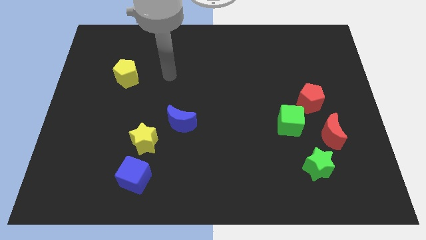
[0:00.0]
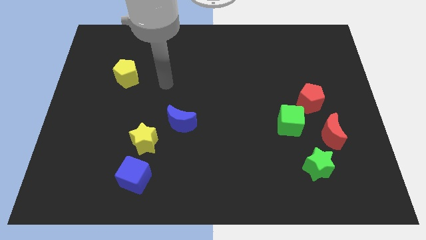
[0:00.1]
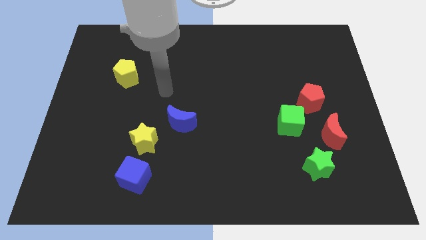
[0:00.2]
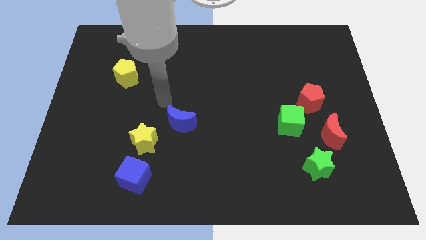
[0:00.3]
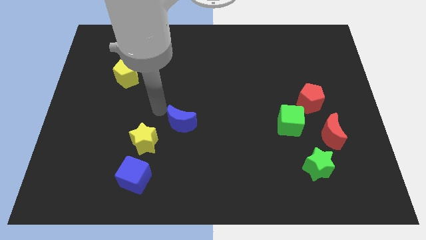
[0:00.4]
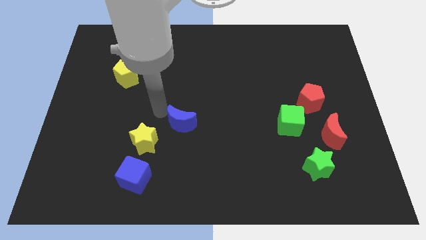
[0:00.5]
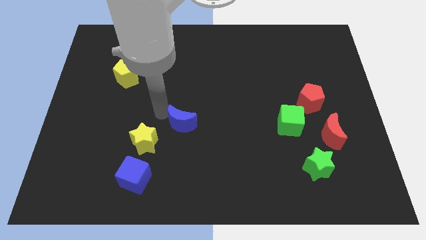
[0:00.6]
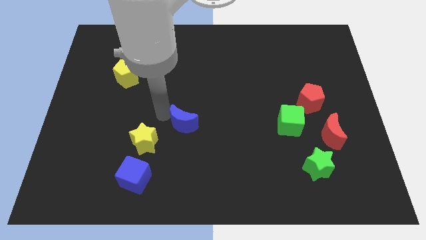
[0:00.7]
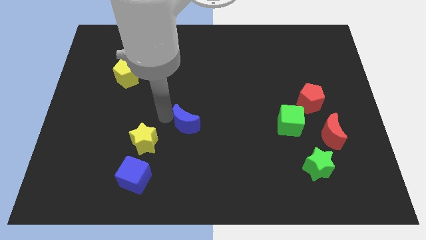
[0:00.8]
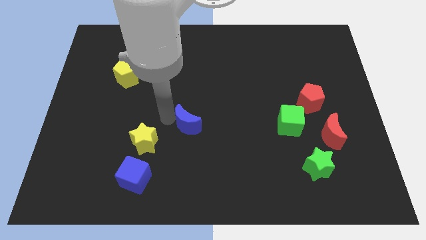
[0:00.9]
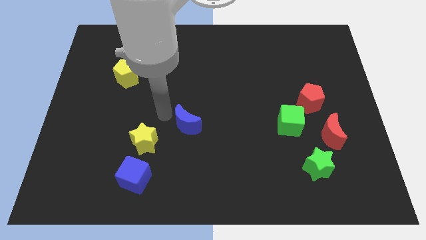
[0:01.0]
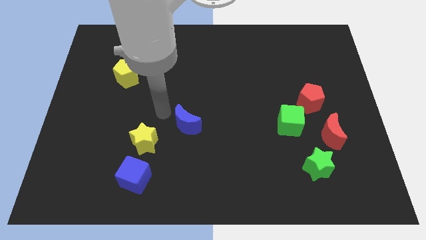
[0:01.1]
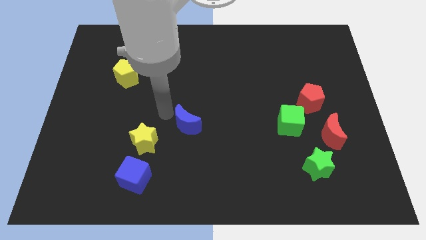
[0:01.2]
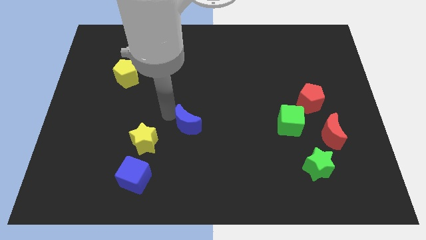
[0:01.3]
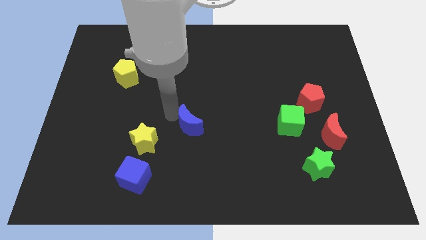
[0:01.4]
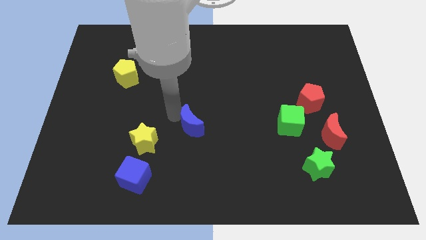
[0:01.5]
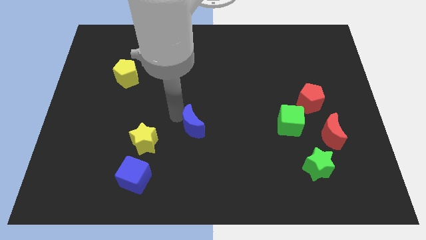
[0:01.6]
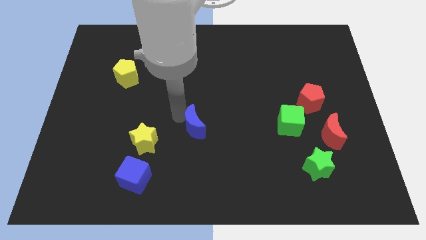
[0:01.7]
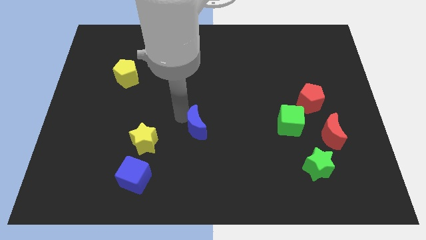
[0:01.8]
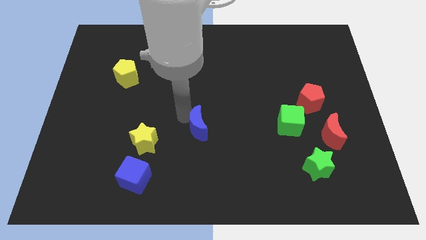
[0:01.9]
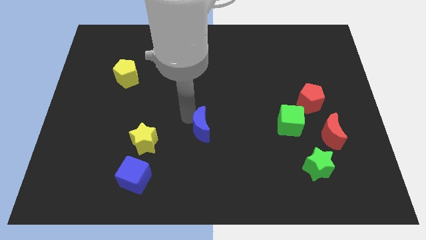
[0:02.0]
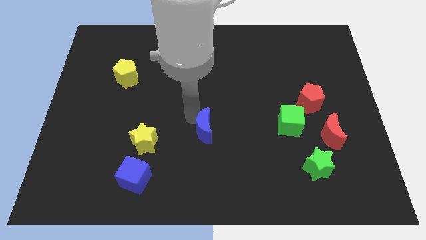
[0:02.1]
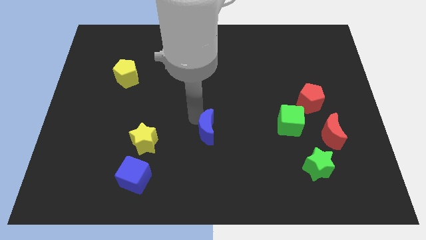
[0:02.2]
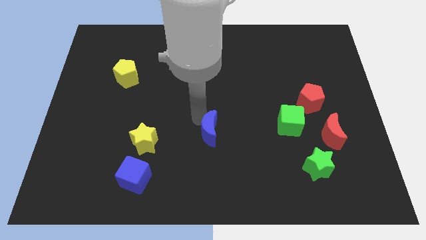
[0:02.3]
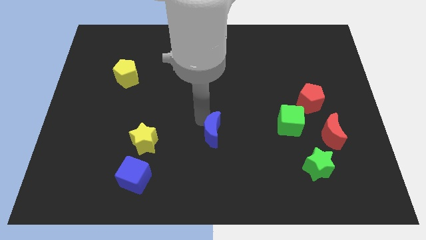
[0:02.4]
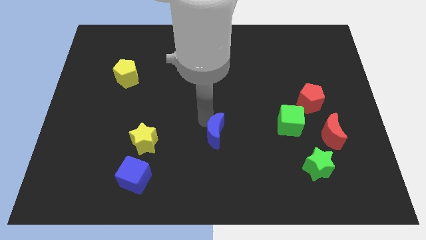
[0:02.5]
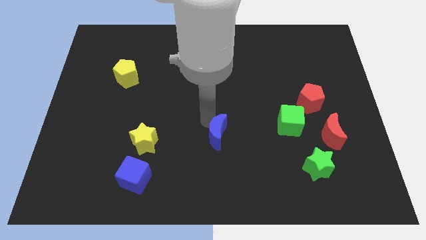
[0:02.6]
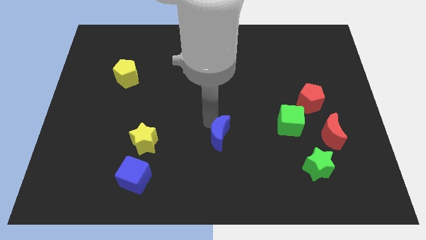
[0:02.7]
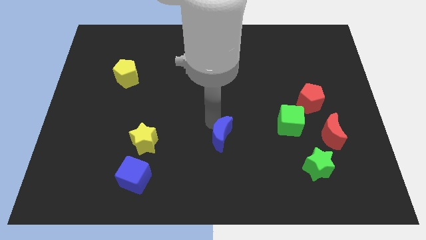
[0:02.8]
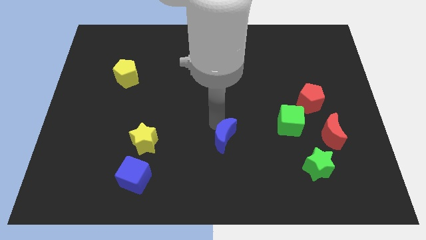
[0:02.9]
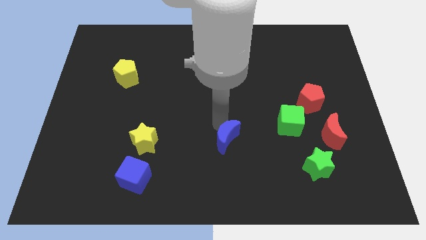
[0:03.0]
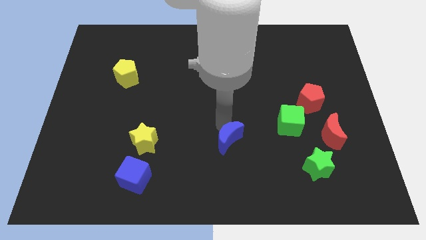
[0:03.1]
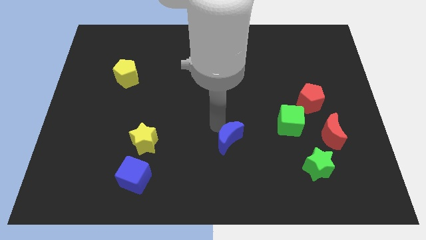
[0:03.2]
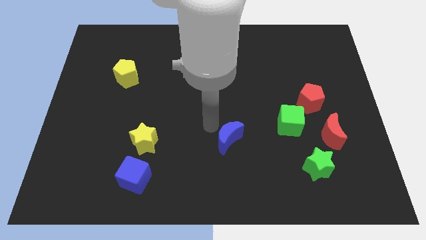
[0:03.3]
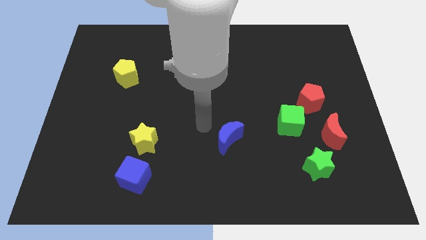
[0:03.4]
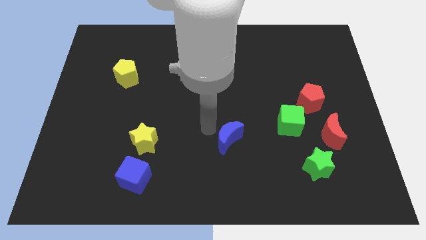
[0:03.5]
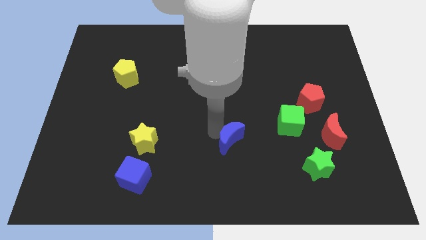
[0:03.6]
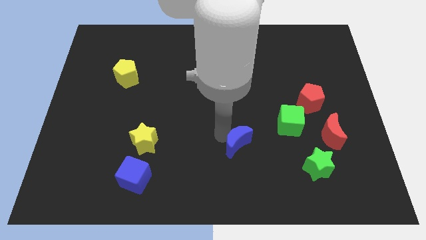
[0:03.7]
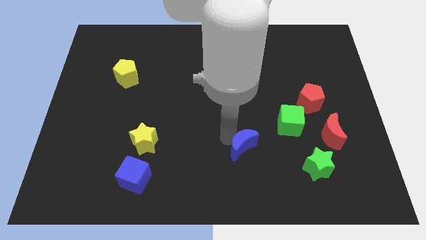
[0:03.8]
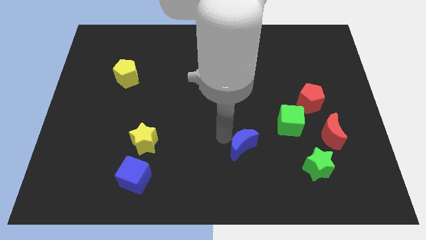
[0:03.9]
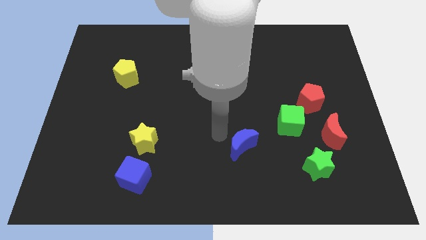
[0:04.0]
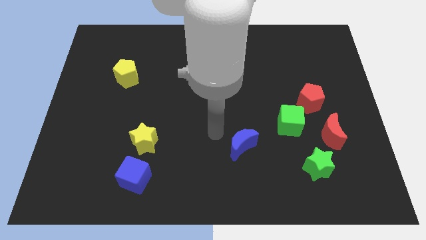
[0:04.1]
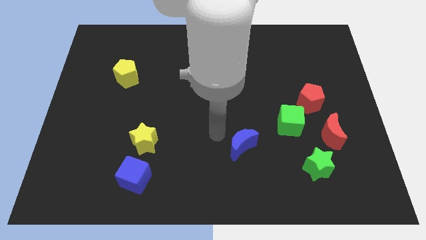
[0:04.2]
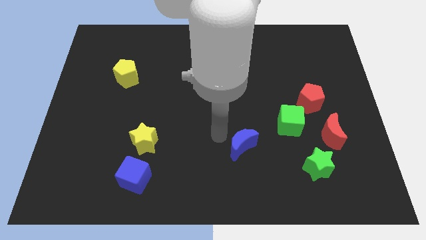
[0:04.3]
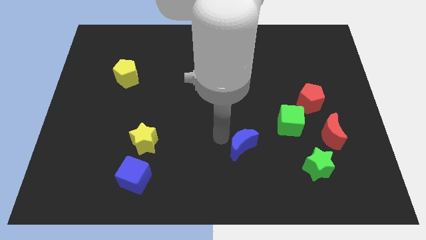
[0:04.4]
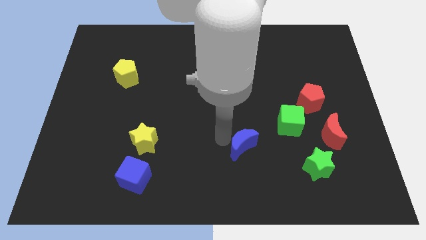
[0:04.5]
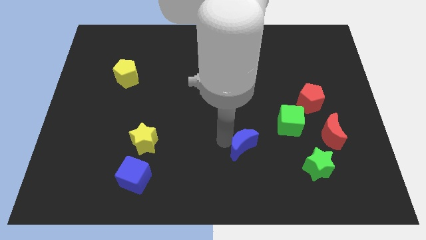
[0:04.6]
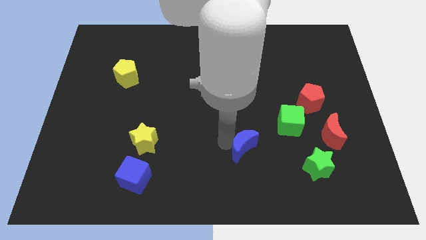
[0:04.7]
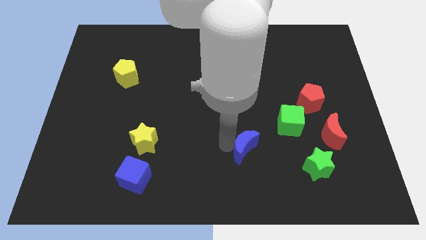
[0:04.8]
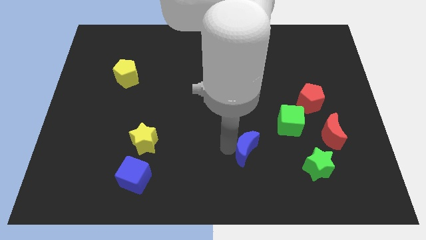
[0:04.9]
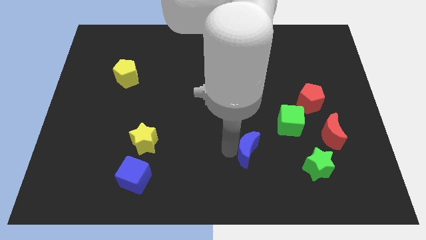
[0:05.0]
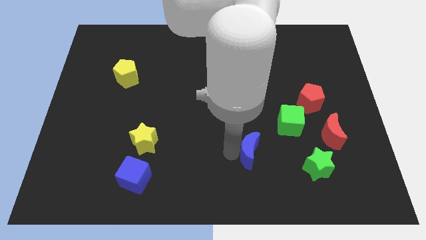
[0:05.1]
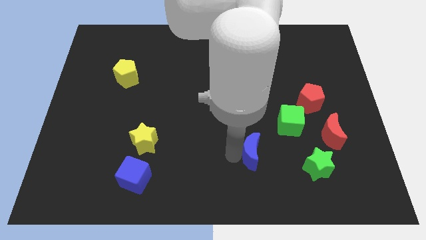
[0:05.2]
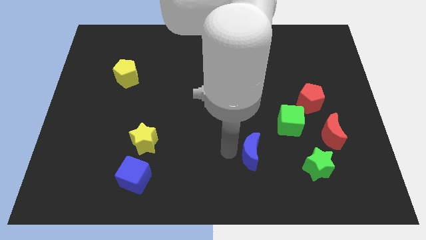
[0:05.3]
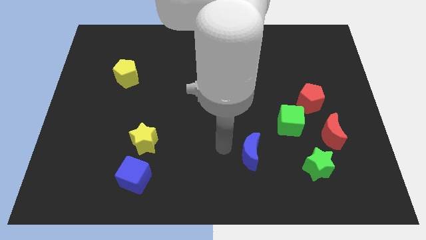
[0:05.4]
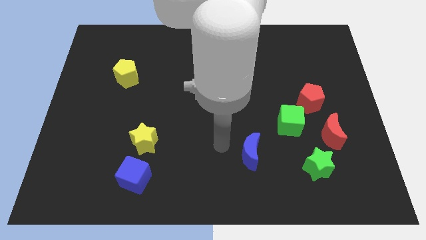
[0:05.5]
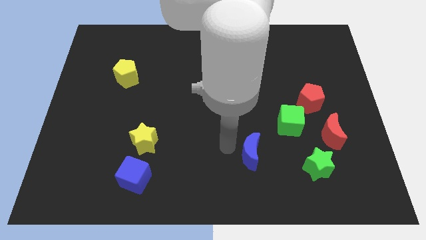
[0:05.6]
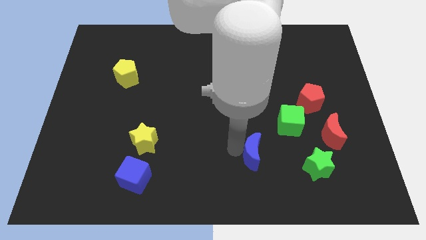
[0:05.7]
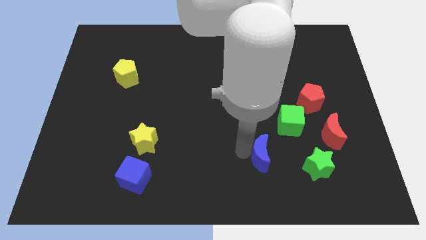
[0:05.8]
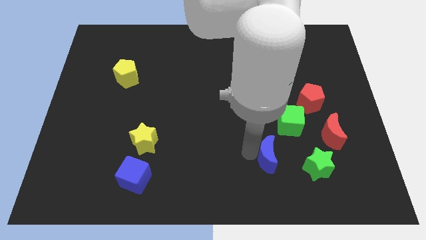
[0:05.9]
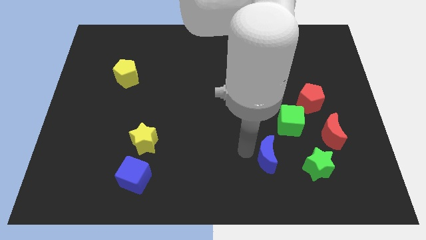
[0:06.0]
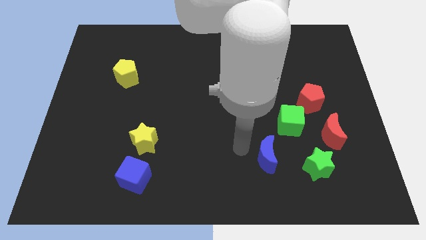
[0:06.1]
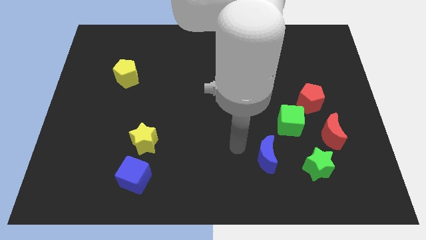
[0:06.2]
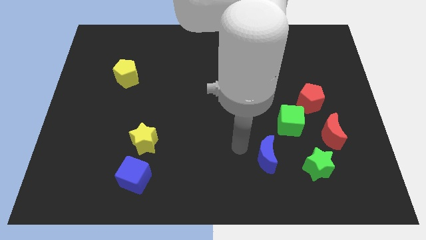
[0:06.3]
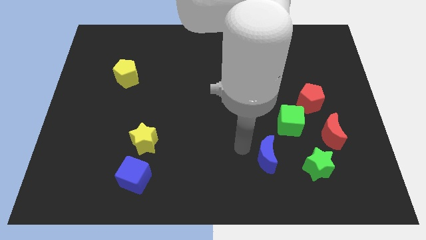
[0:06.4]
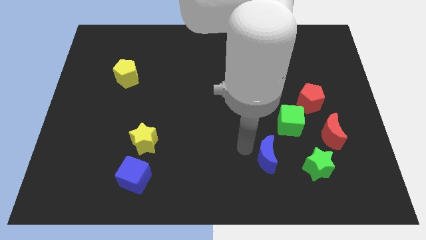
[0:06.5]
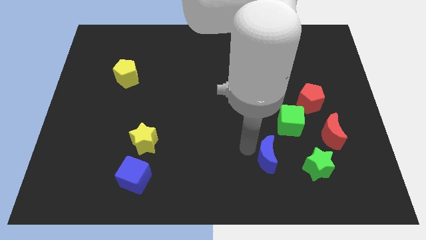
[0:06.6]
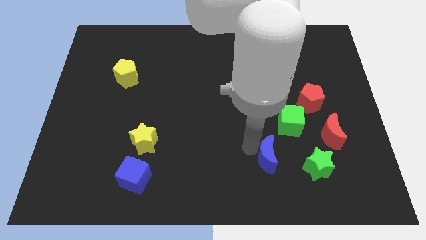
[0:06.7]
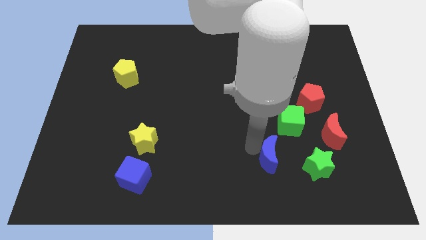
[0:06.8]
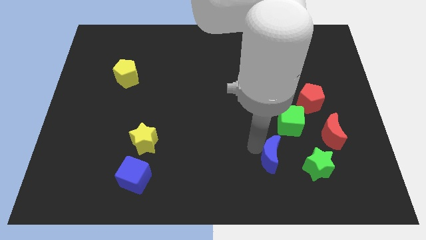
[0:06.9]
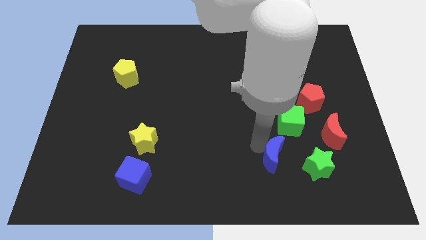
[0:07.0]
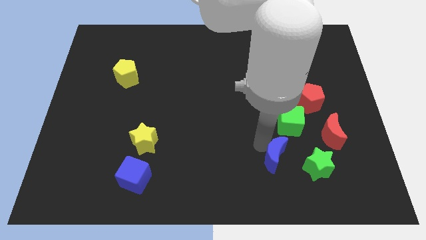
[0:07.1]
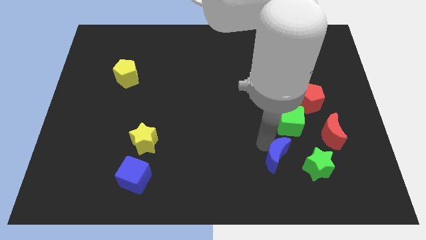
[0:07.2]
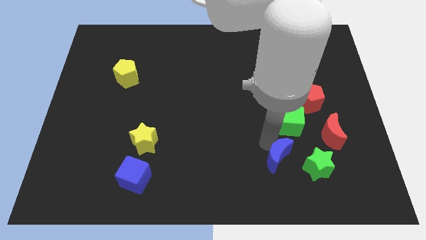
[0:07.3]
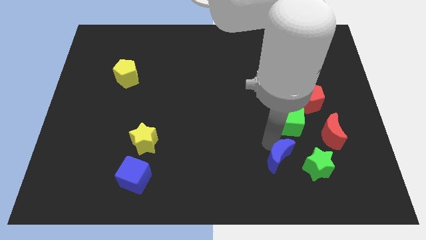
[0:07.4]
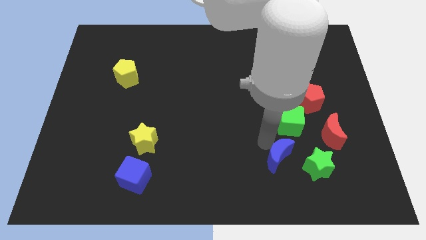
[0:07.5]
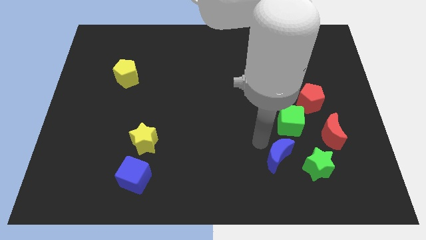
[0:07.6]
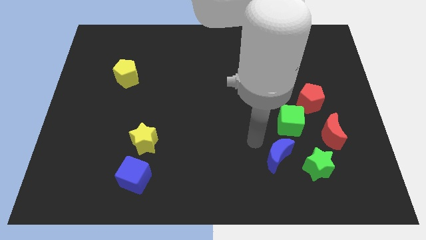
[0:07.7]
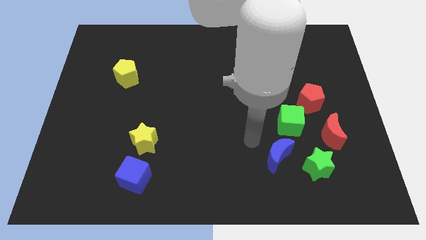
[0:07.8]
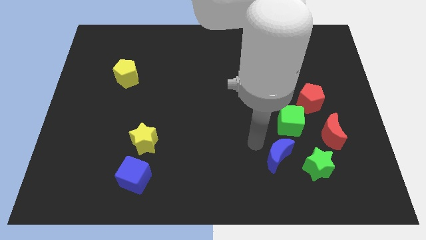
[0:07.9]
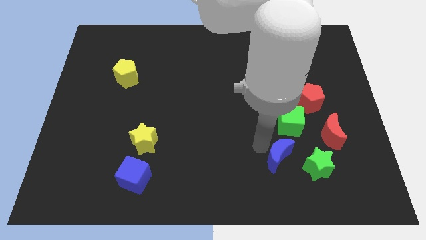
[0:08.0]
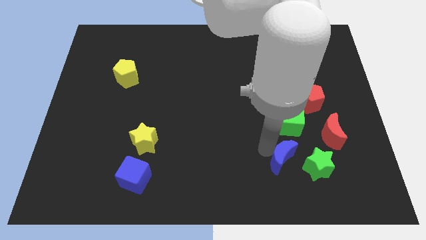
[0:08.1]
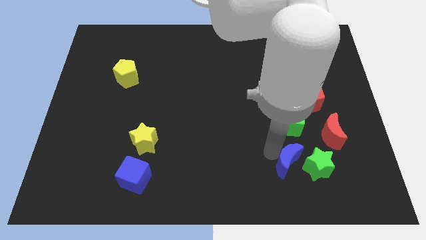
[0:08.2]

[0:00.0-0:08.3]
slide the blue moon close to the green star
